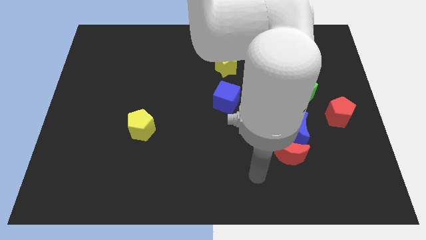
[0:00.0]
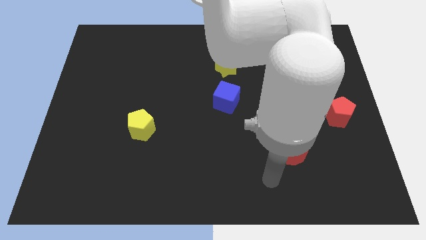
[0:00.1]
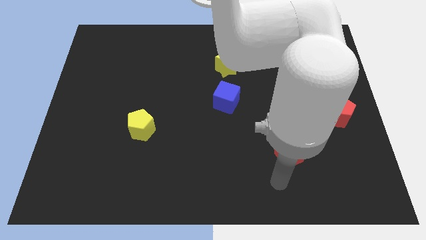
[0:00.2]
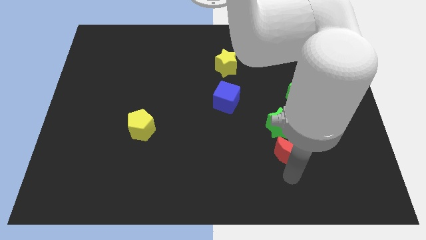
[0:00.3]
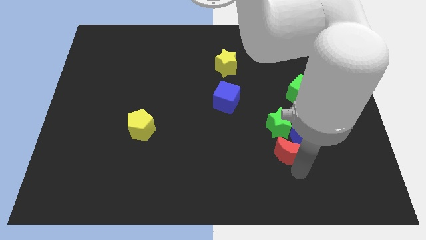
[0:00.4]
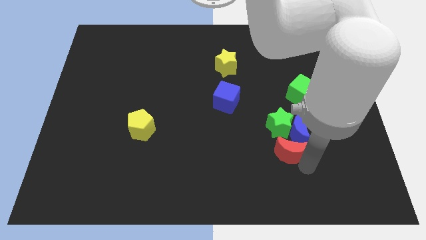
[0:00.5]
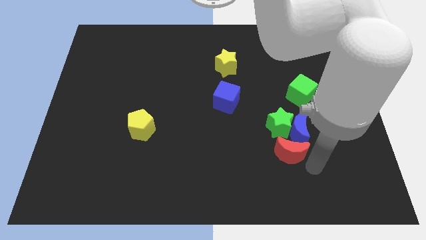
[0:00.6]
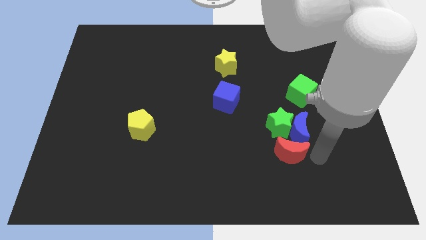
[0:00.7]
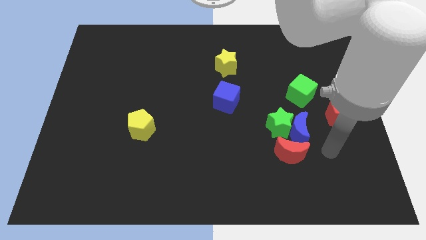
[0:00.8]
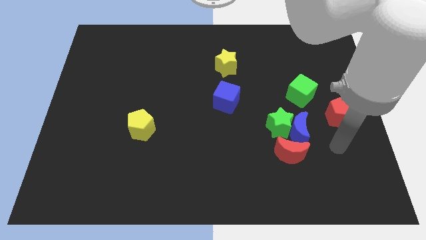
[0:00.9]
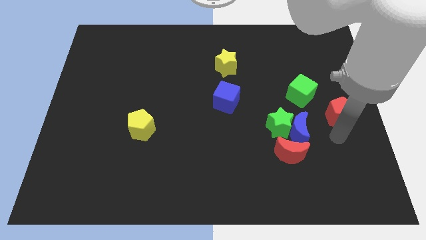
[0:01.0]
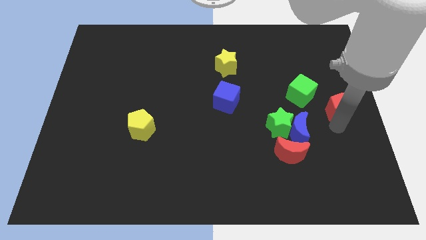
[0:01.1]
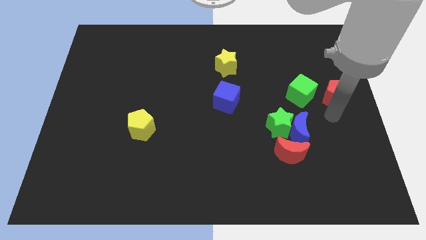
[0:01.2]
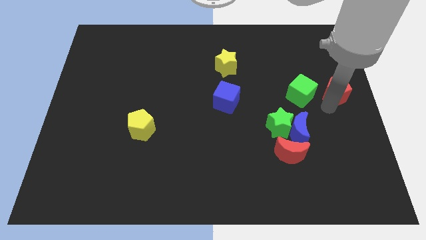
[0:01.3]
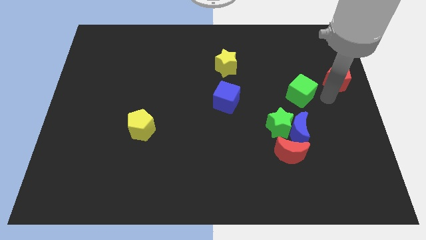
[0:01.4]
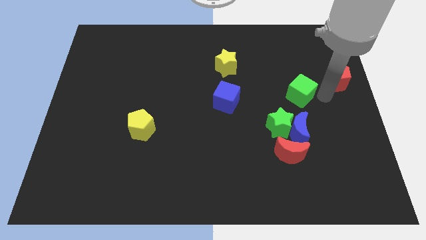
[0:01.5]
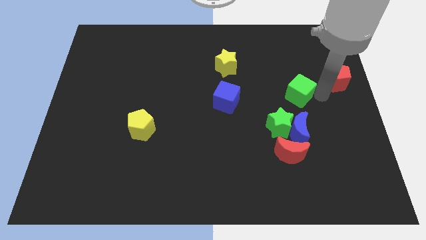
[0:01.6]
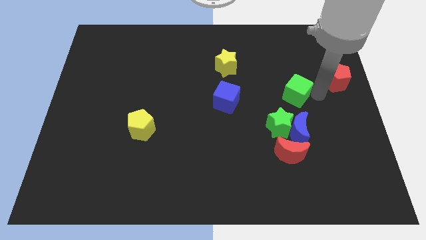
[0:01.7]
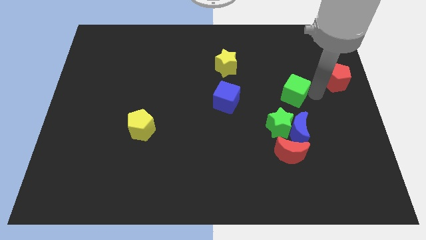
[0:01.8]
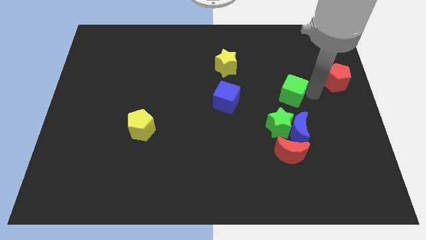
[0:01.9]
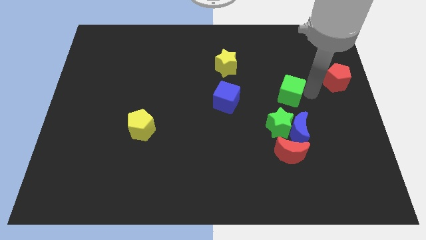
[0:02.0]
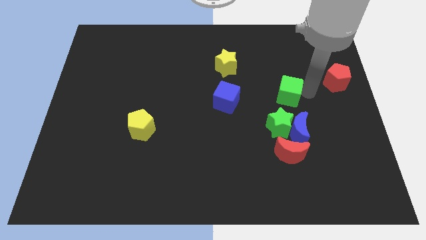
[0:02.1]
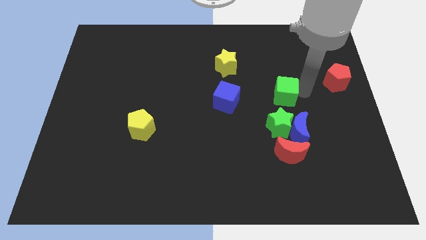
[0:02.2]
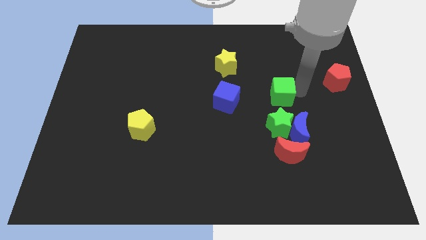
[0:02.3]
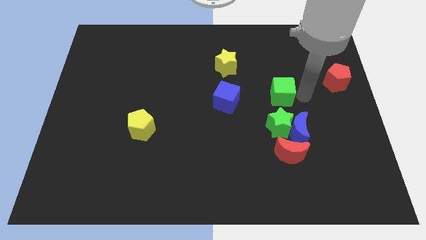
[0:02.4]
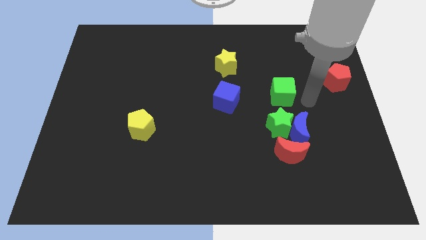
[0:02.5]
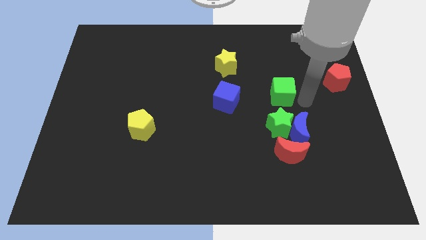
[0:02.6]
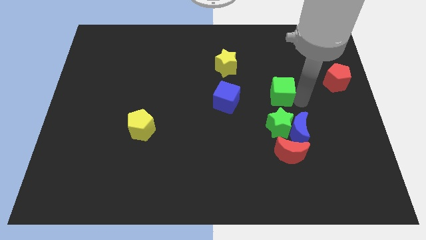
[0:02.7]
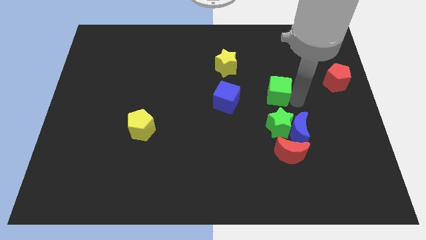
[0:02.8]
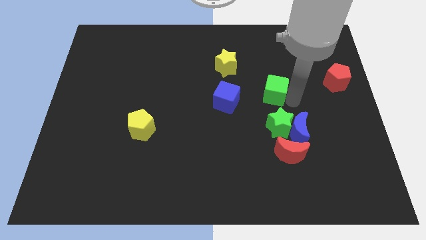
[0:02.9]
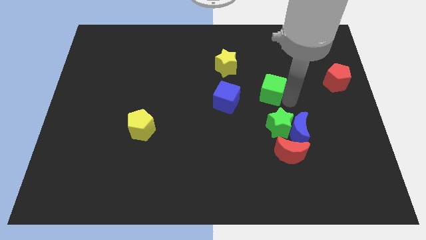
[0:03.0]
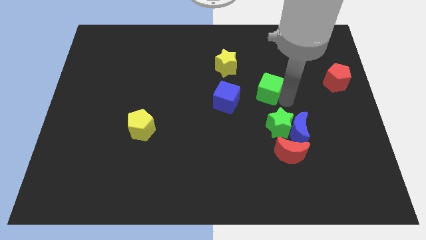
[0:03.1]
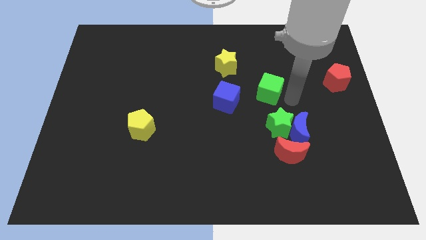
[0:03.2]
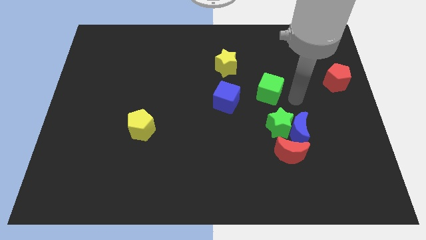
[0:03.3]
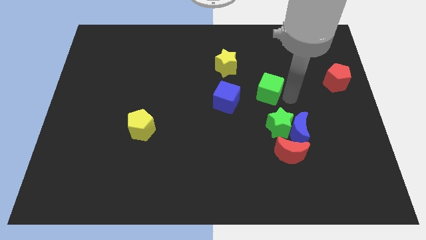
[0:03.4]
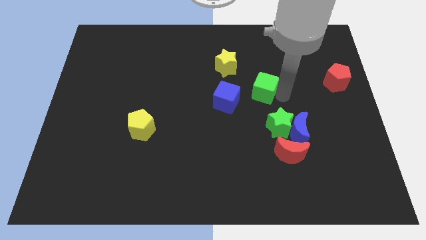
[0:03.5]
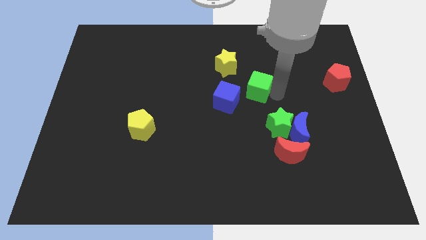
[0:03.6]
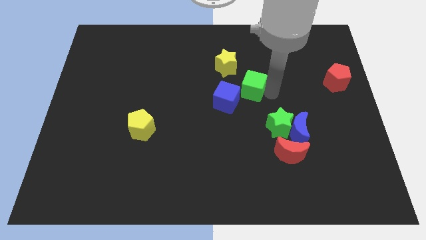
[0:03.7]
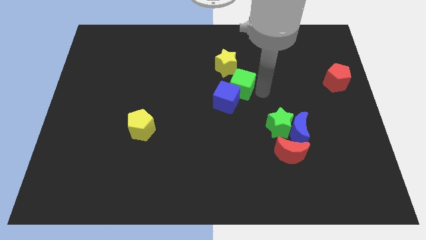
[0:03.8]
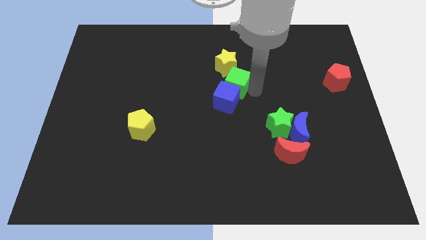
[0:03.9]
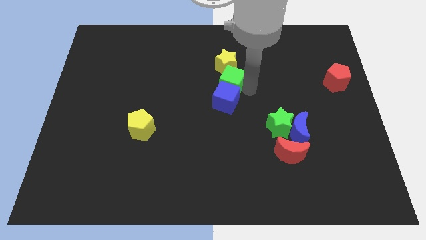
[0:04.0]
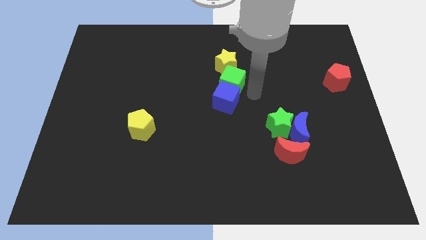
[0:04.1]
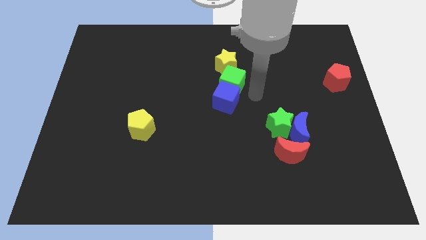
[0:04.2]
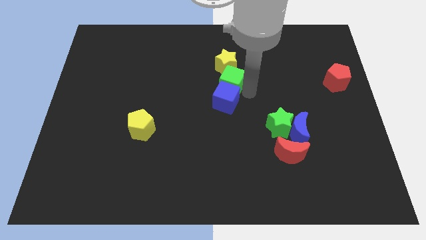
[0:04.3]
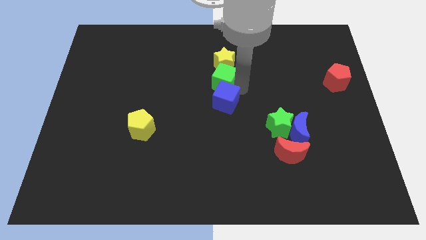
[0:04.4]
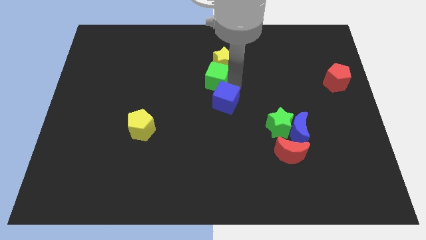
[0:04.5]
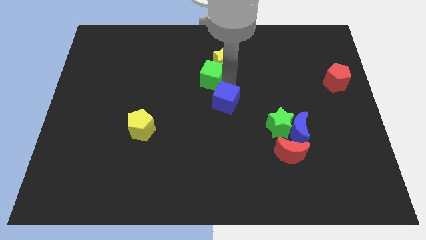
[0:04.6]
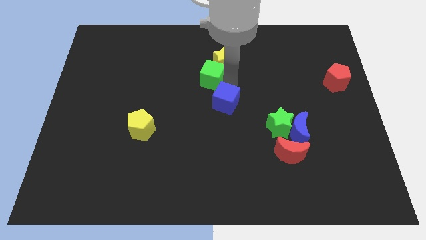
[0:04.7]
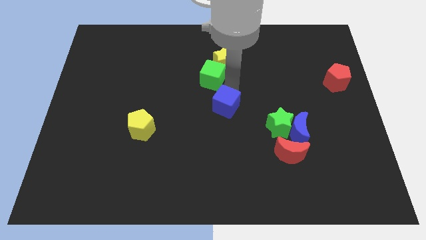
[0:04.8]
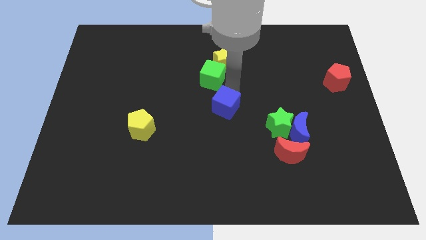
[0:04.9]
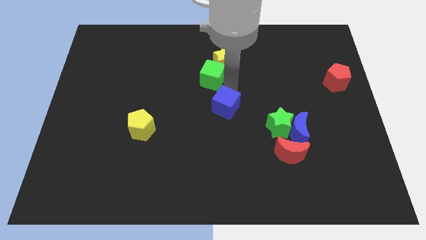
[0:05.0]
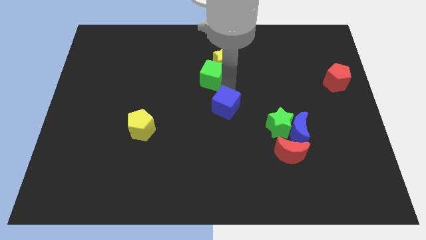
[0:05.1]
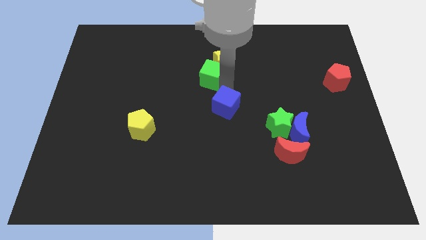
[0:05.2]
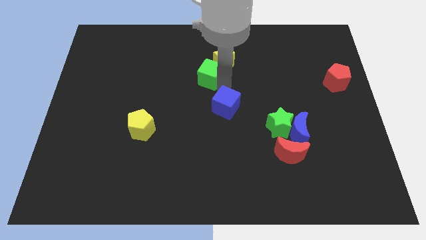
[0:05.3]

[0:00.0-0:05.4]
push the green cube just left of the yellow star

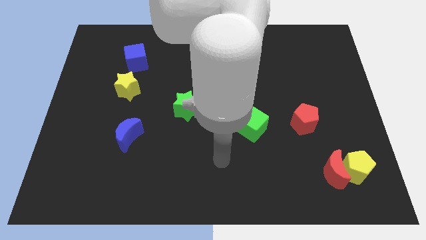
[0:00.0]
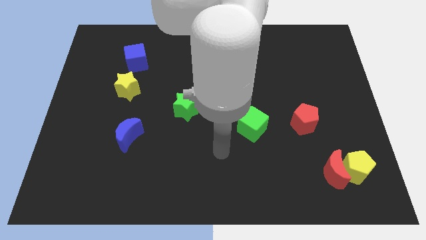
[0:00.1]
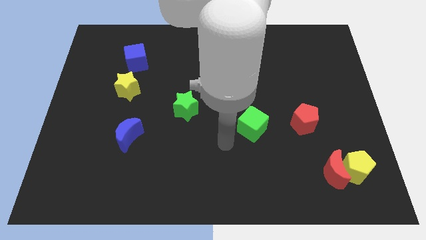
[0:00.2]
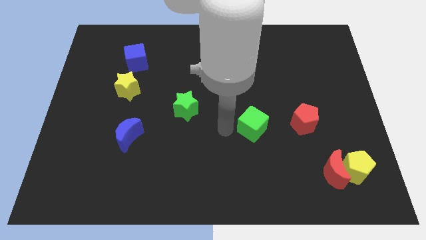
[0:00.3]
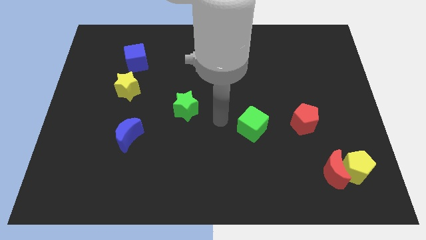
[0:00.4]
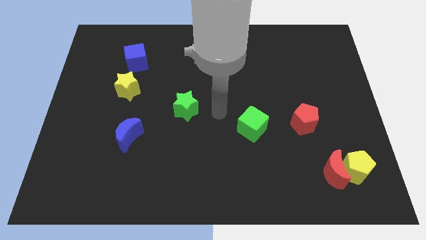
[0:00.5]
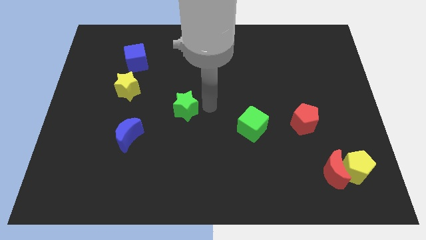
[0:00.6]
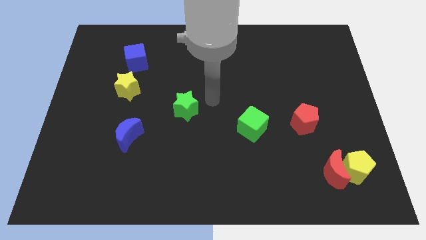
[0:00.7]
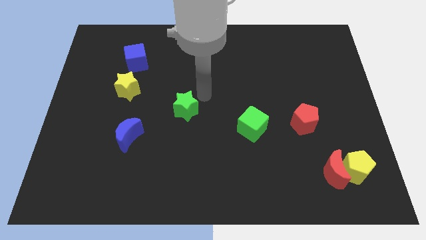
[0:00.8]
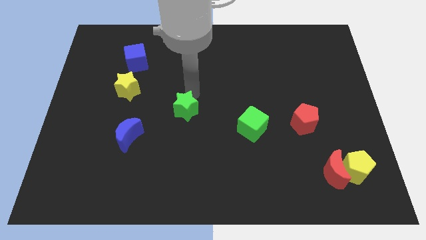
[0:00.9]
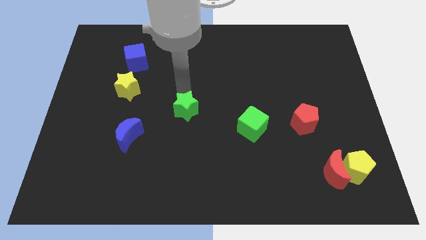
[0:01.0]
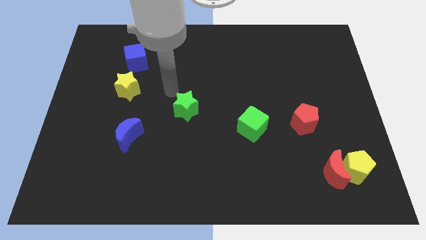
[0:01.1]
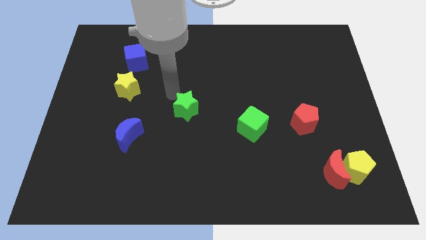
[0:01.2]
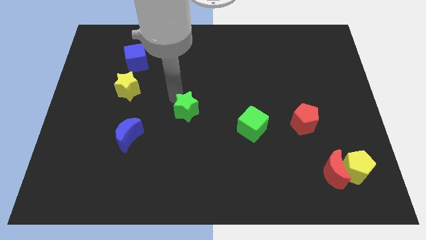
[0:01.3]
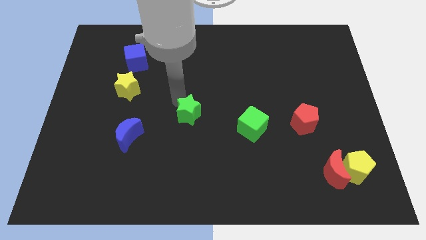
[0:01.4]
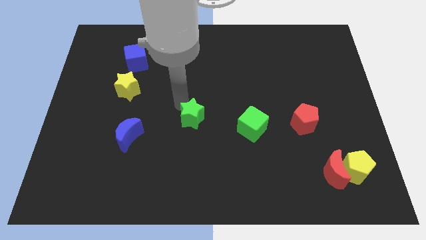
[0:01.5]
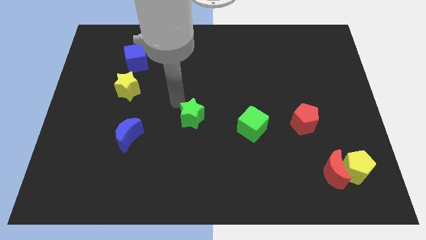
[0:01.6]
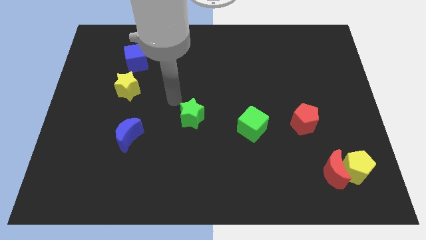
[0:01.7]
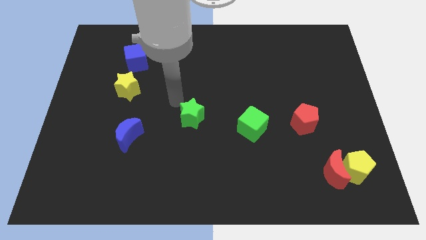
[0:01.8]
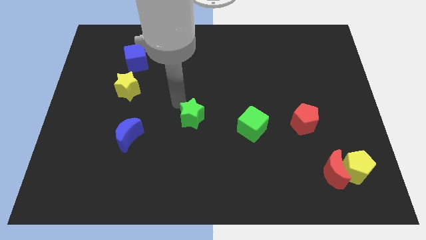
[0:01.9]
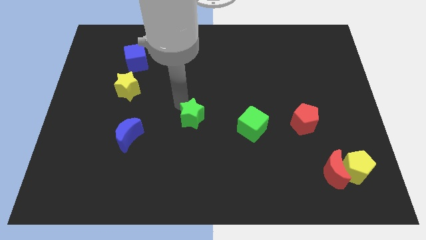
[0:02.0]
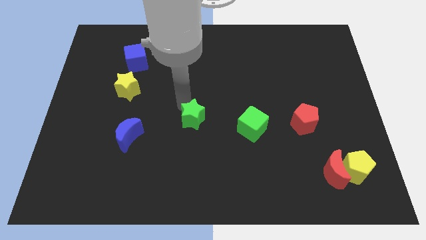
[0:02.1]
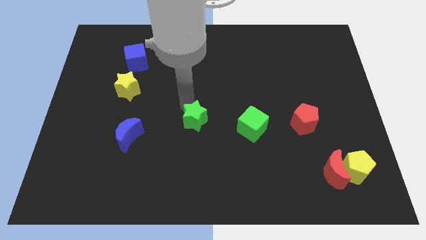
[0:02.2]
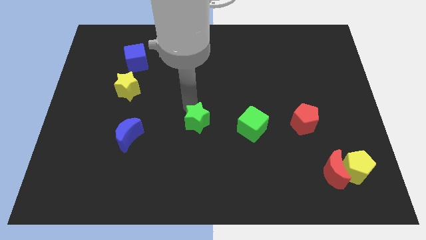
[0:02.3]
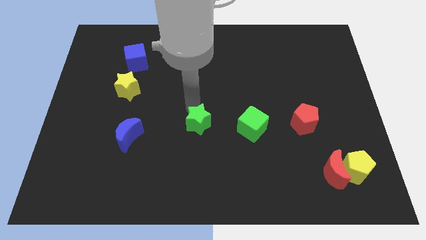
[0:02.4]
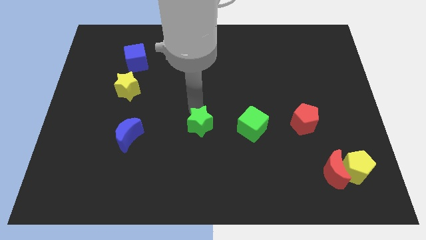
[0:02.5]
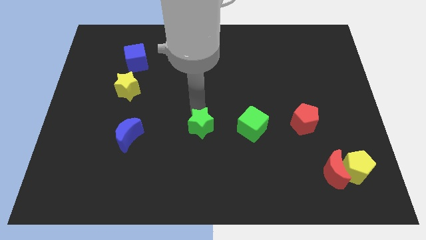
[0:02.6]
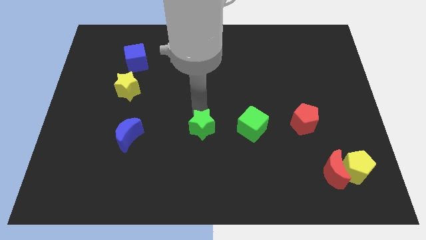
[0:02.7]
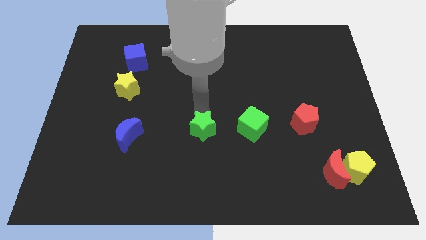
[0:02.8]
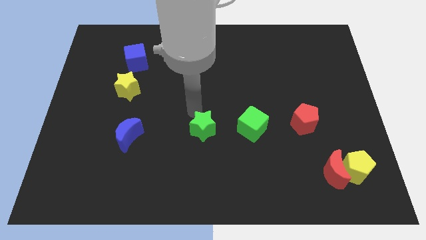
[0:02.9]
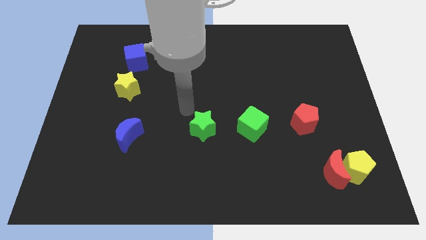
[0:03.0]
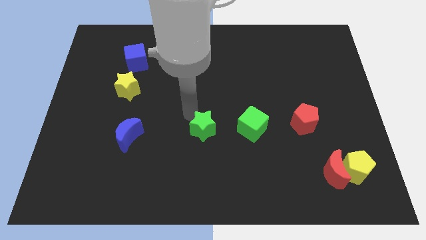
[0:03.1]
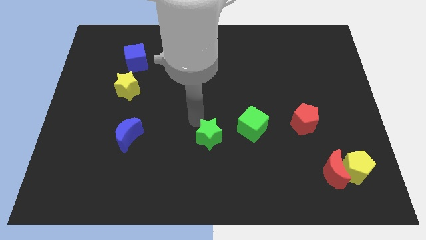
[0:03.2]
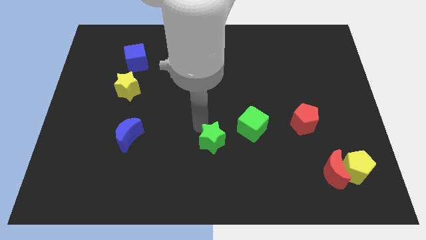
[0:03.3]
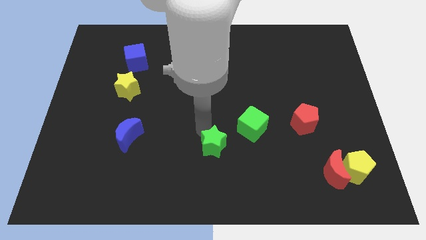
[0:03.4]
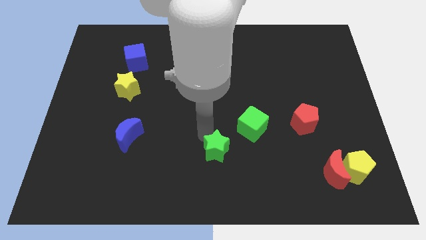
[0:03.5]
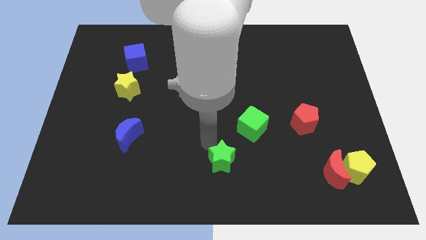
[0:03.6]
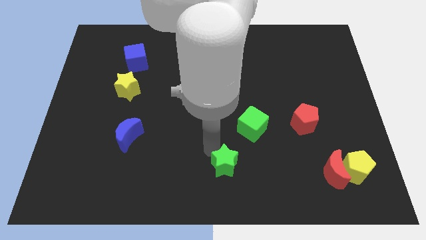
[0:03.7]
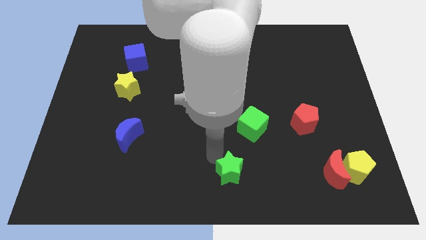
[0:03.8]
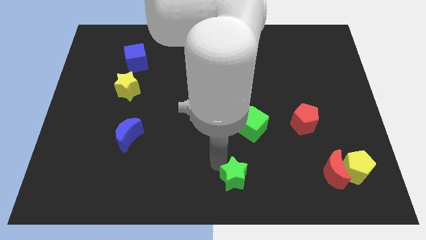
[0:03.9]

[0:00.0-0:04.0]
slide the green star to the bottom side of the green cube
